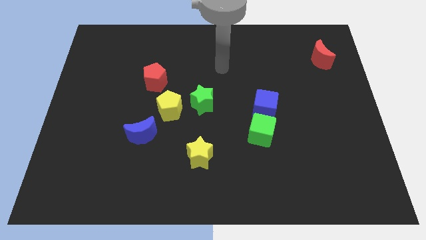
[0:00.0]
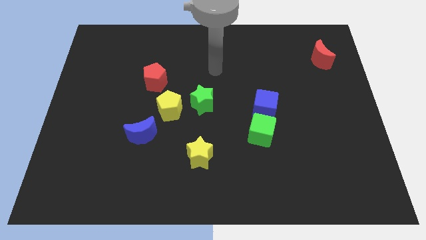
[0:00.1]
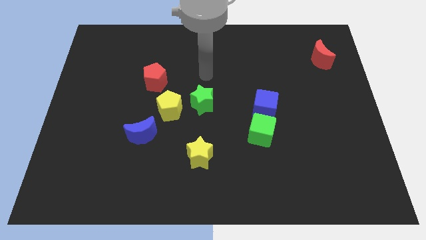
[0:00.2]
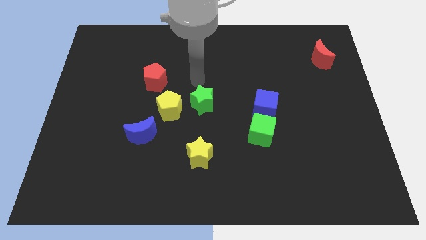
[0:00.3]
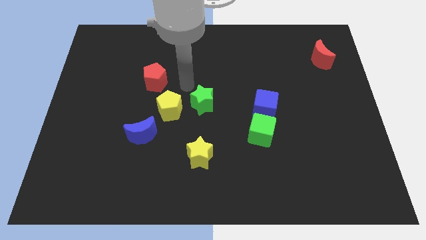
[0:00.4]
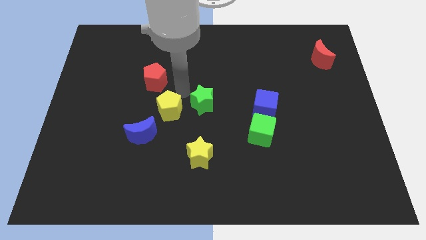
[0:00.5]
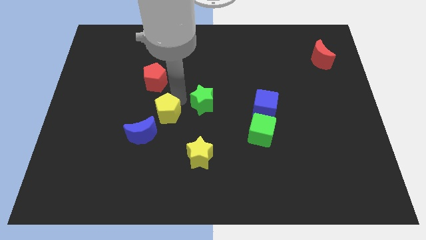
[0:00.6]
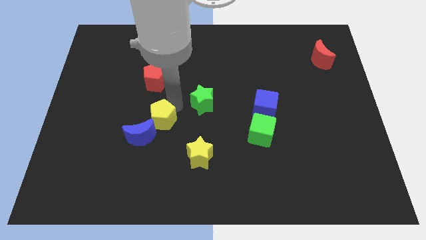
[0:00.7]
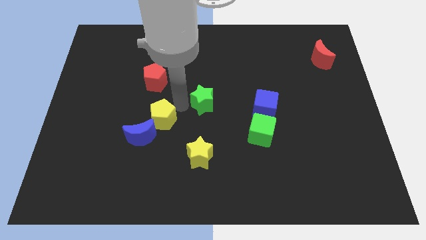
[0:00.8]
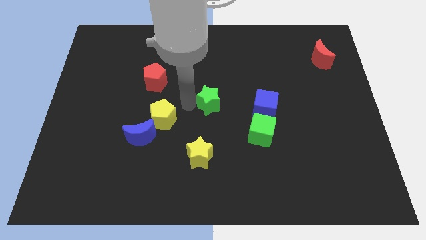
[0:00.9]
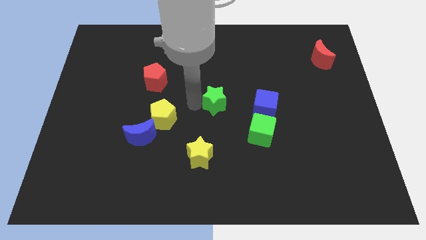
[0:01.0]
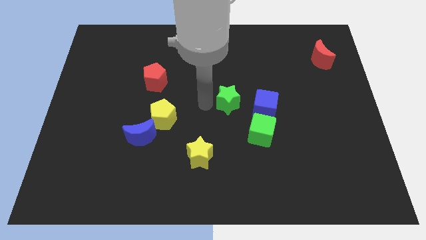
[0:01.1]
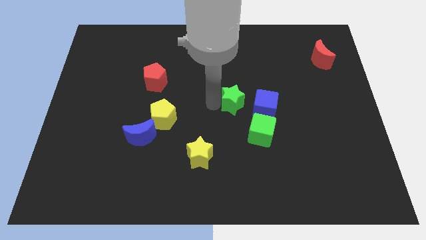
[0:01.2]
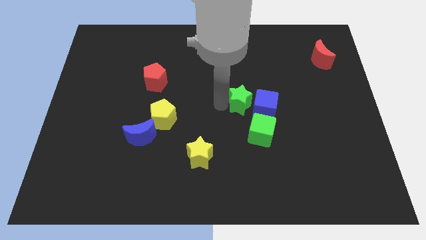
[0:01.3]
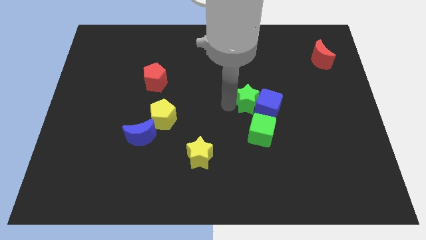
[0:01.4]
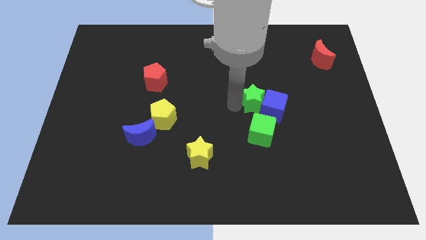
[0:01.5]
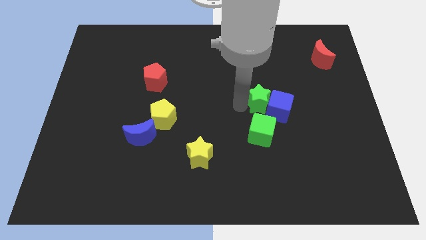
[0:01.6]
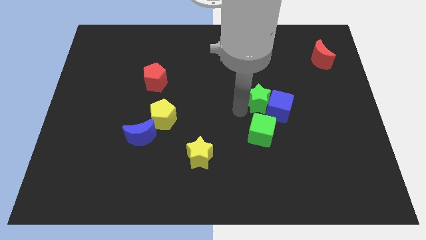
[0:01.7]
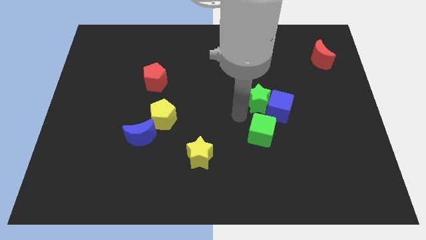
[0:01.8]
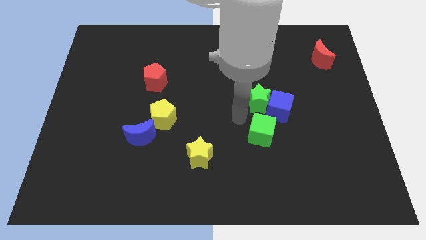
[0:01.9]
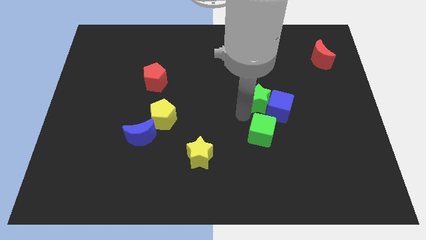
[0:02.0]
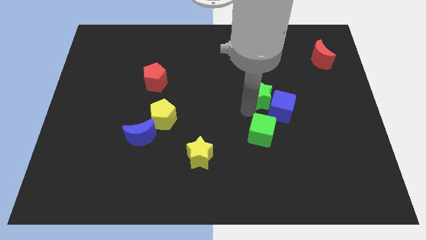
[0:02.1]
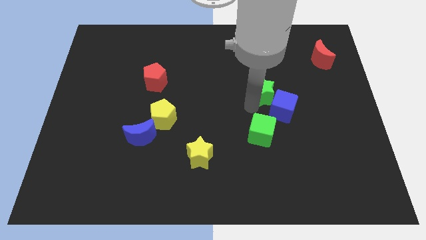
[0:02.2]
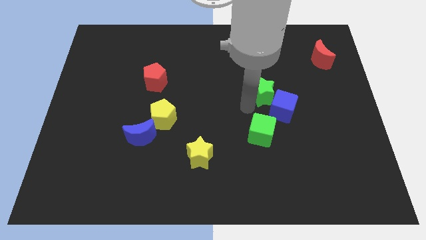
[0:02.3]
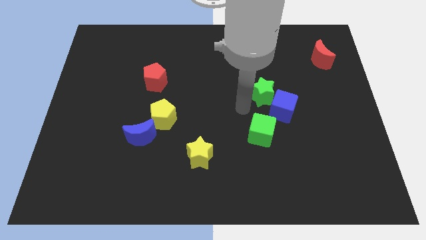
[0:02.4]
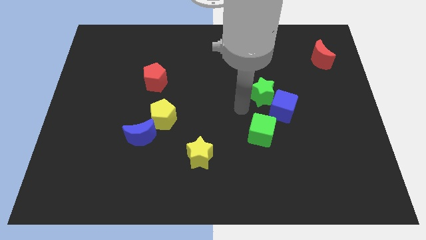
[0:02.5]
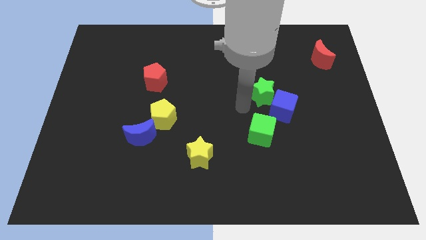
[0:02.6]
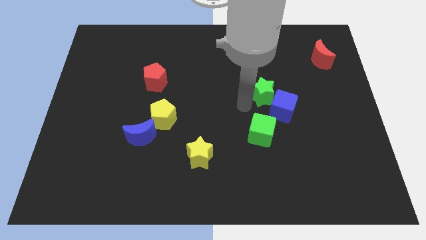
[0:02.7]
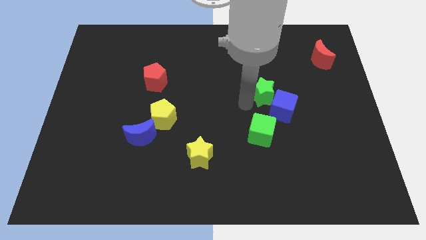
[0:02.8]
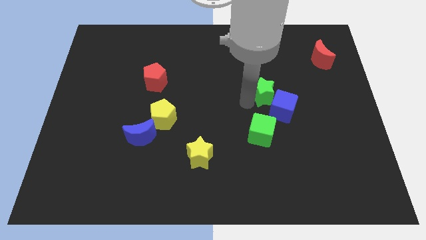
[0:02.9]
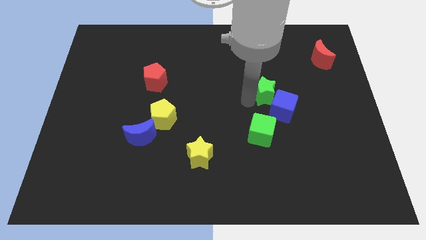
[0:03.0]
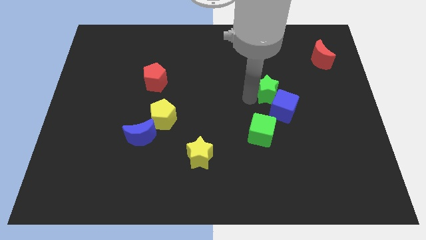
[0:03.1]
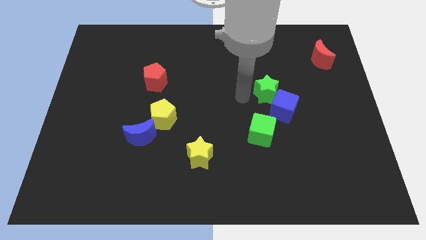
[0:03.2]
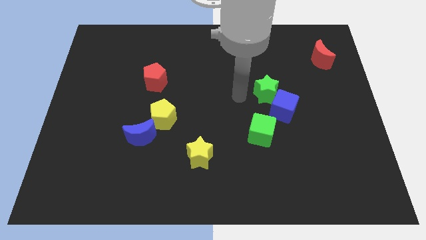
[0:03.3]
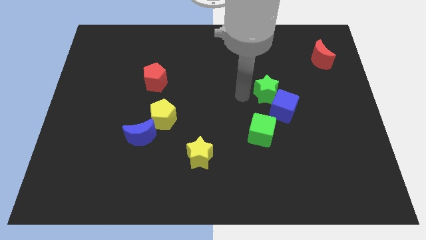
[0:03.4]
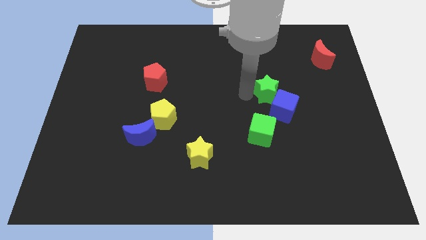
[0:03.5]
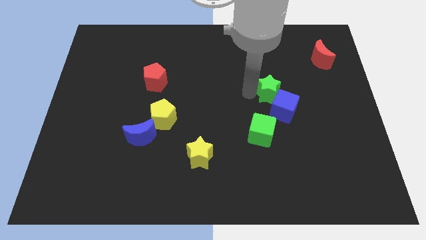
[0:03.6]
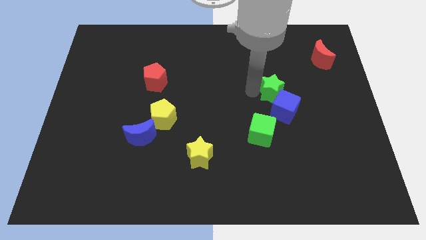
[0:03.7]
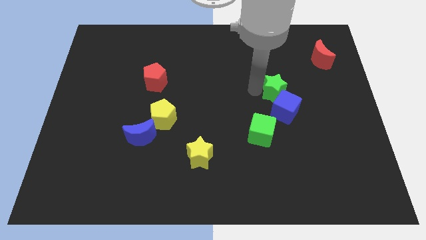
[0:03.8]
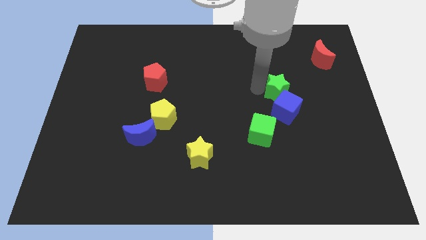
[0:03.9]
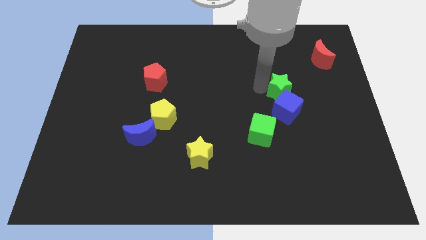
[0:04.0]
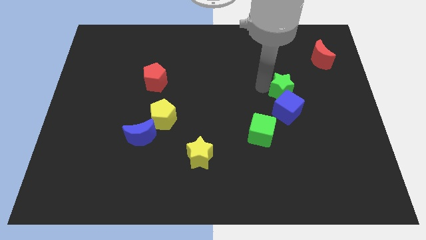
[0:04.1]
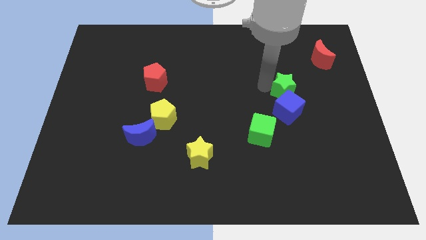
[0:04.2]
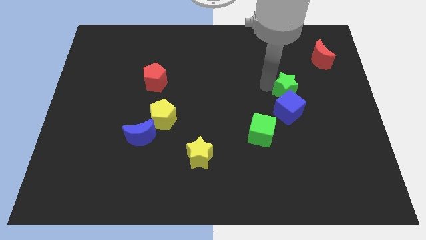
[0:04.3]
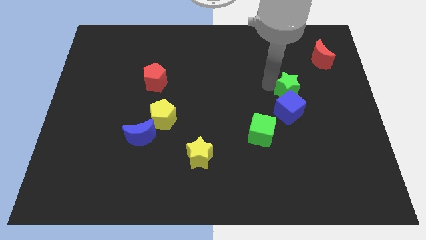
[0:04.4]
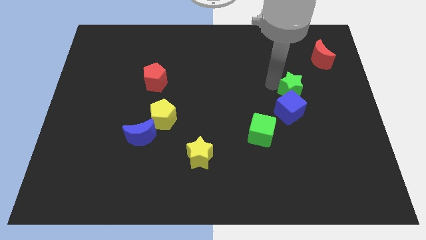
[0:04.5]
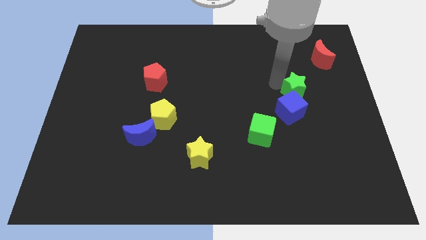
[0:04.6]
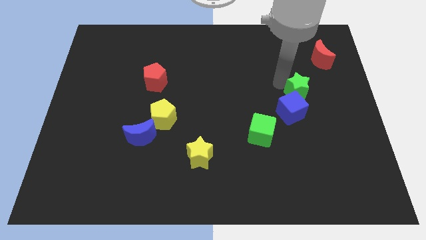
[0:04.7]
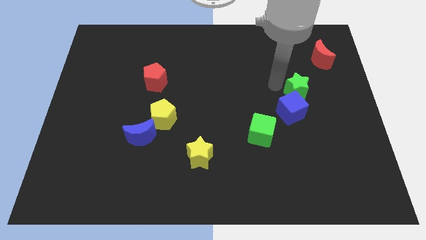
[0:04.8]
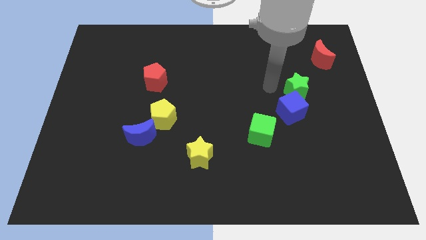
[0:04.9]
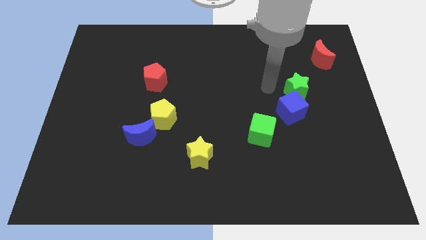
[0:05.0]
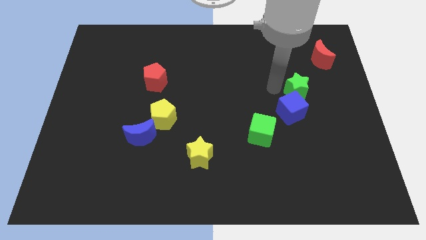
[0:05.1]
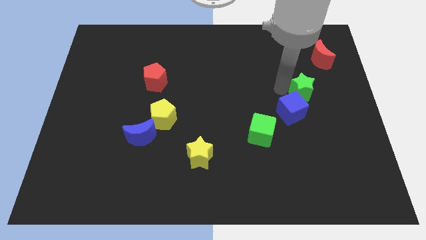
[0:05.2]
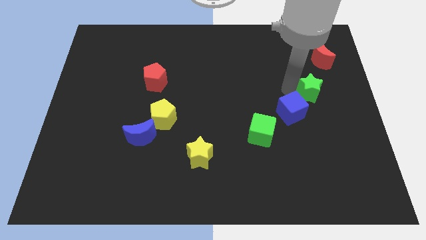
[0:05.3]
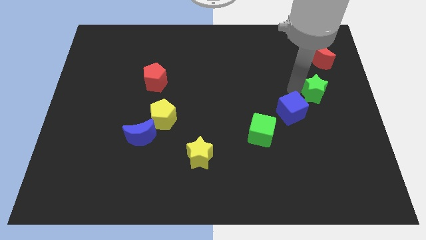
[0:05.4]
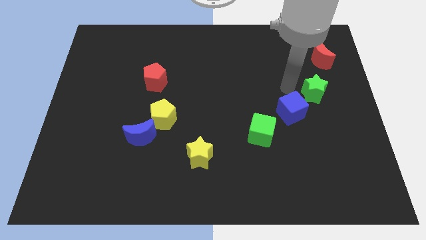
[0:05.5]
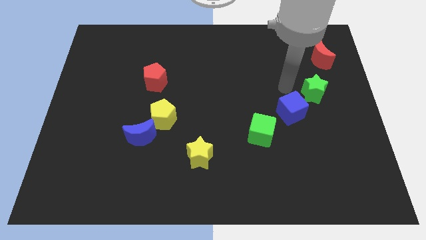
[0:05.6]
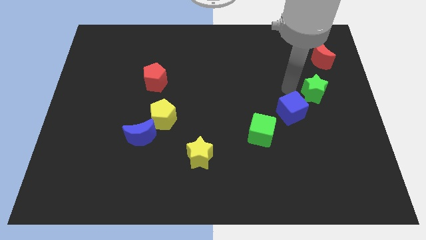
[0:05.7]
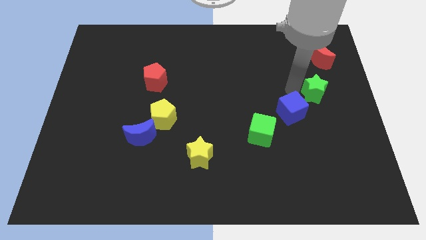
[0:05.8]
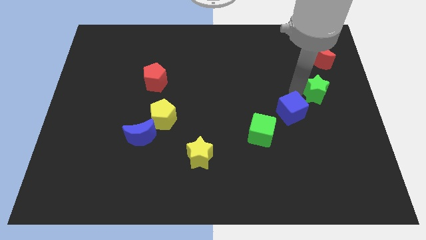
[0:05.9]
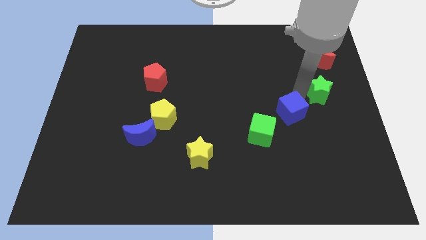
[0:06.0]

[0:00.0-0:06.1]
slide the green star to the center right

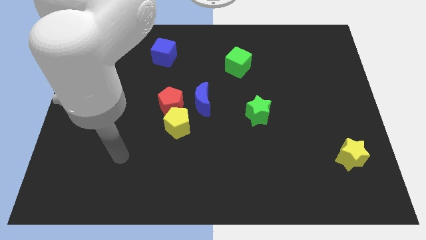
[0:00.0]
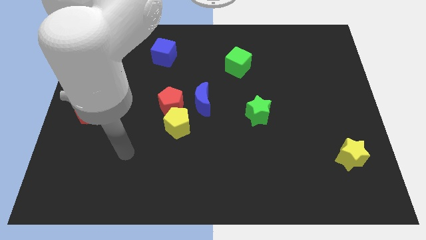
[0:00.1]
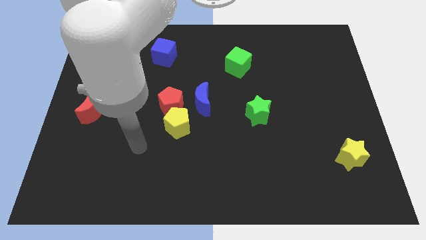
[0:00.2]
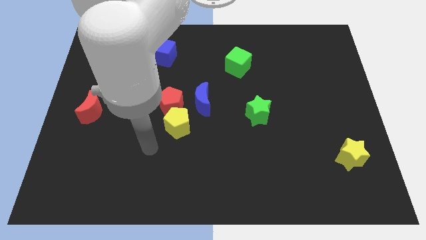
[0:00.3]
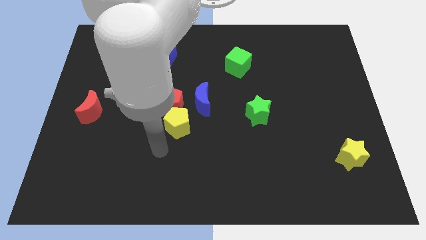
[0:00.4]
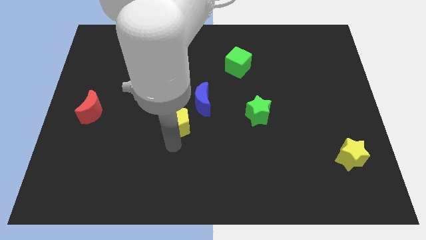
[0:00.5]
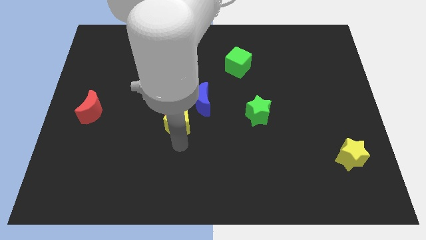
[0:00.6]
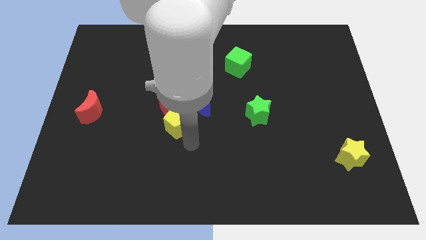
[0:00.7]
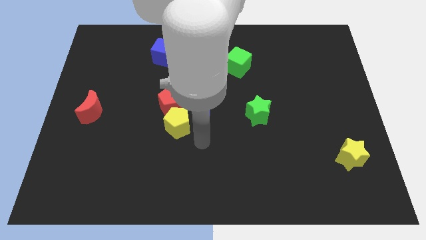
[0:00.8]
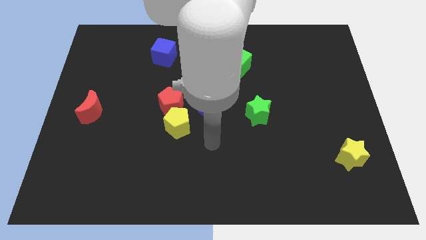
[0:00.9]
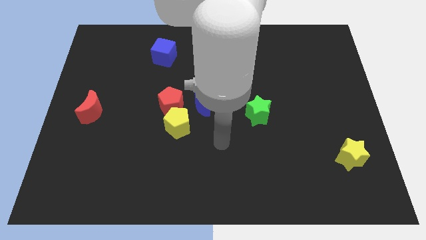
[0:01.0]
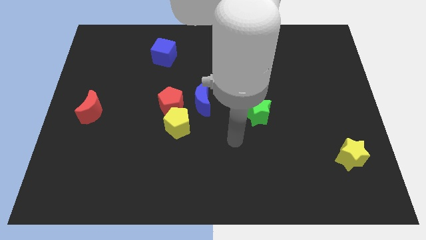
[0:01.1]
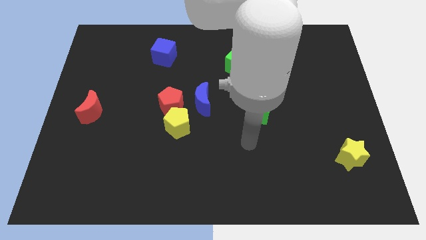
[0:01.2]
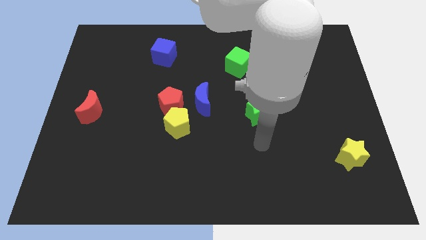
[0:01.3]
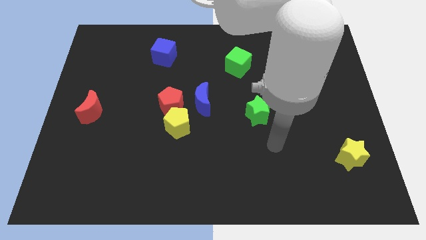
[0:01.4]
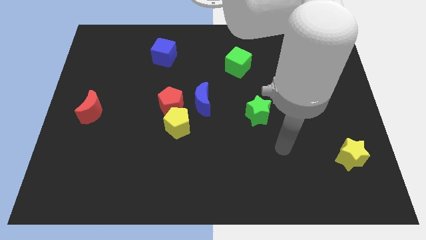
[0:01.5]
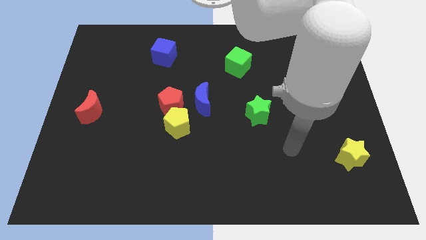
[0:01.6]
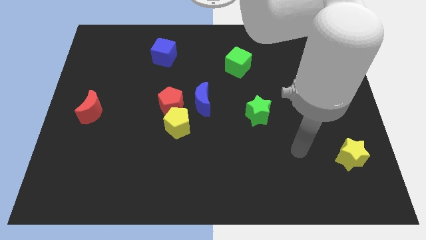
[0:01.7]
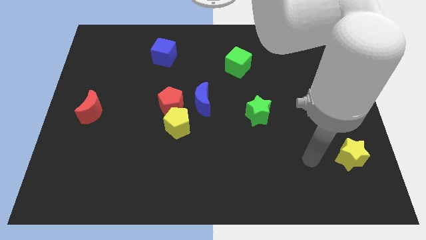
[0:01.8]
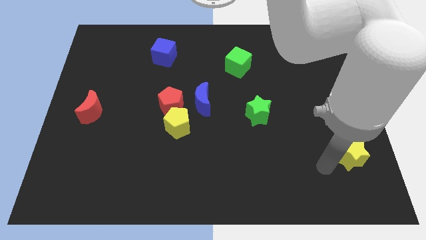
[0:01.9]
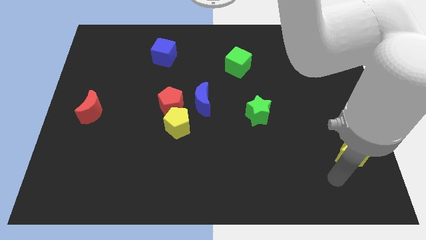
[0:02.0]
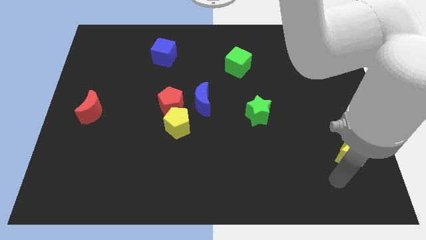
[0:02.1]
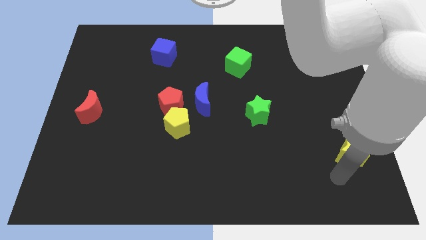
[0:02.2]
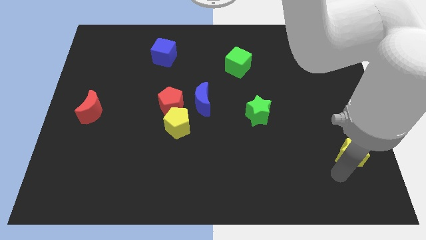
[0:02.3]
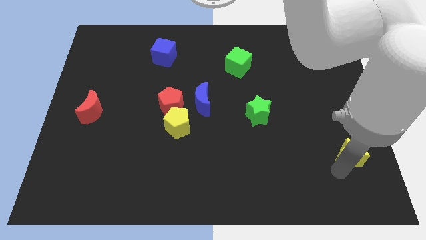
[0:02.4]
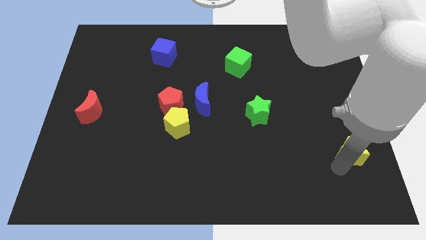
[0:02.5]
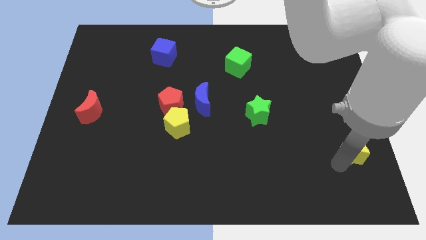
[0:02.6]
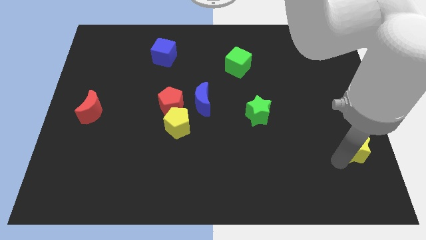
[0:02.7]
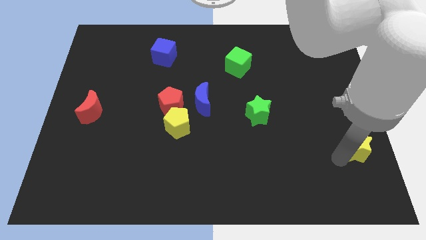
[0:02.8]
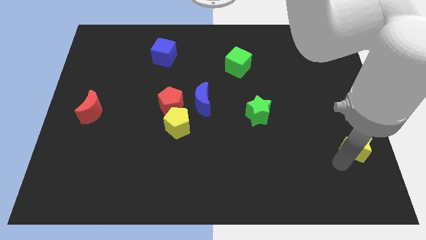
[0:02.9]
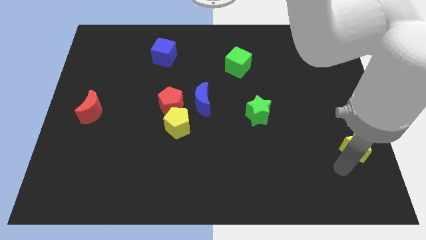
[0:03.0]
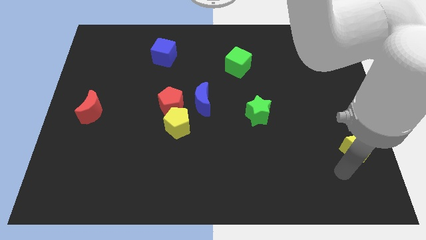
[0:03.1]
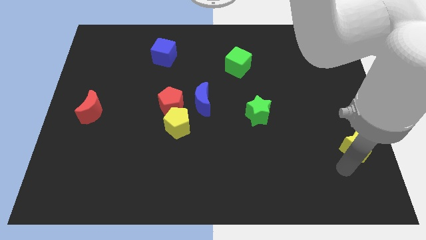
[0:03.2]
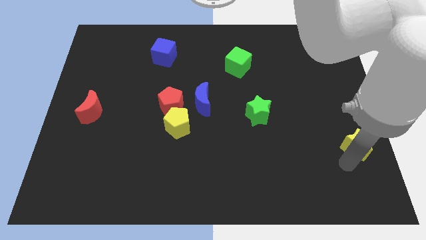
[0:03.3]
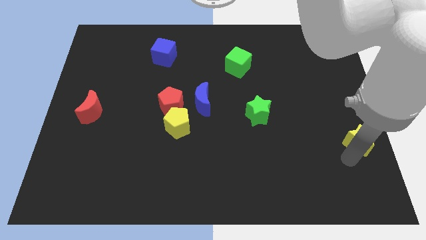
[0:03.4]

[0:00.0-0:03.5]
put the yellow star to the right side of the board
